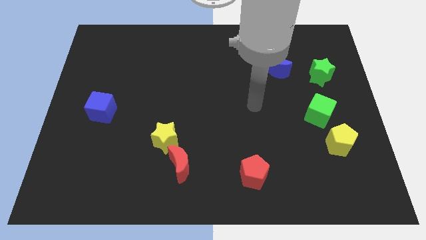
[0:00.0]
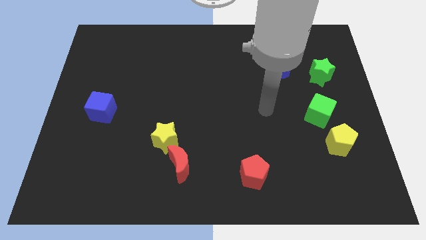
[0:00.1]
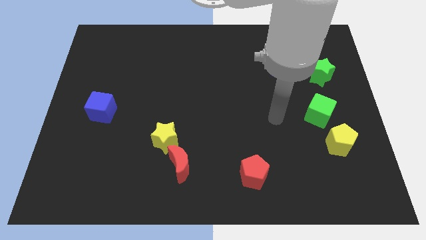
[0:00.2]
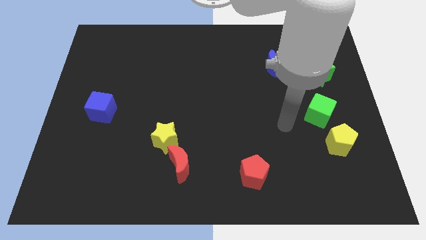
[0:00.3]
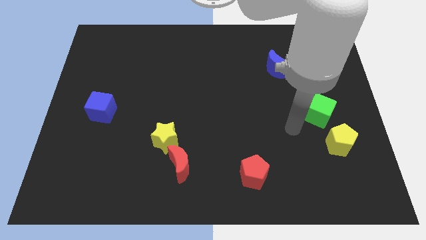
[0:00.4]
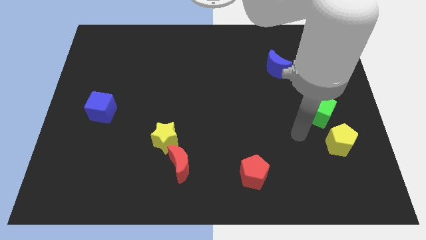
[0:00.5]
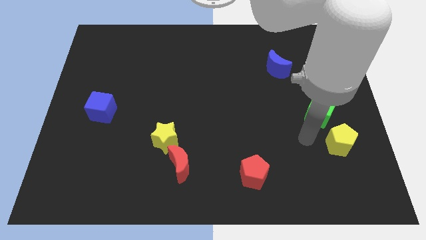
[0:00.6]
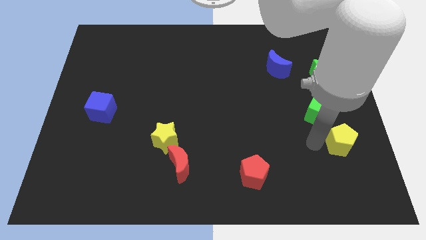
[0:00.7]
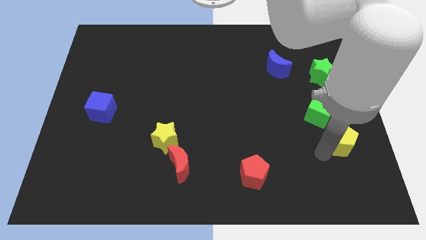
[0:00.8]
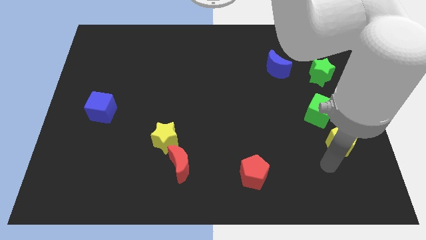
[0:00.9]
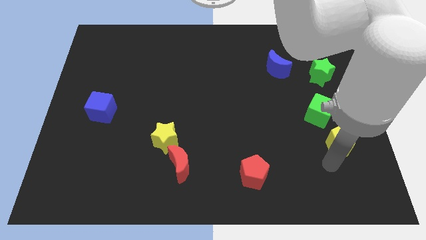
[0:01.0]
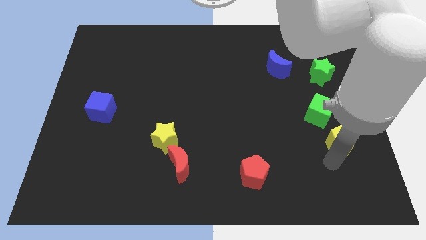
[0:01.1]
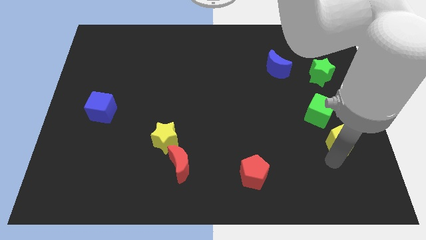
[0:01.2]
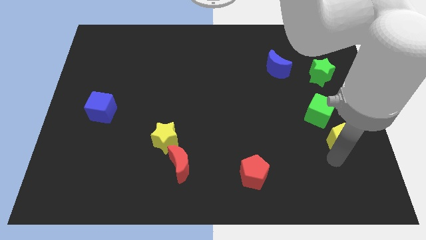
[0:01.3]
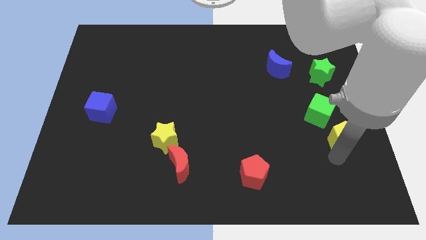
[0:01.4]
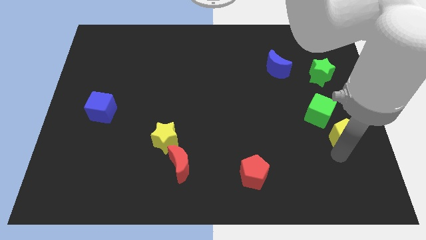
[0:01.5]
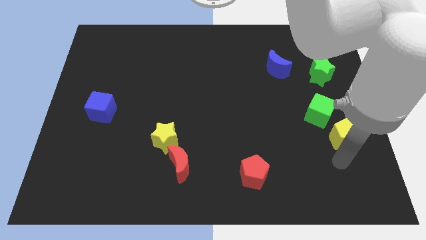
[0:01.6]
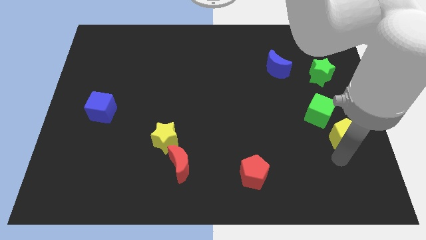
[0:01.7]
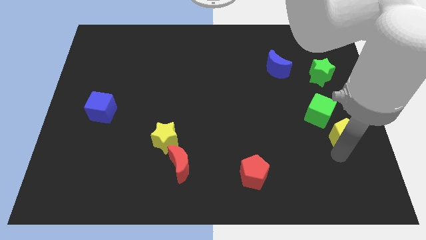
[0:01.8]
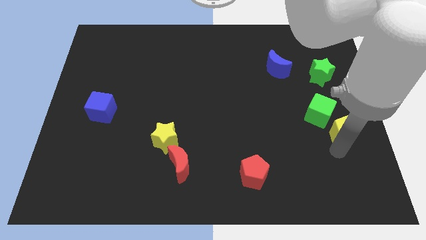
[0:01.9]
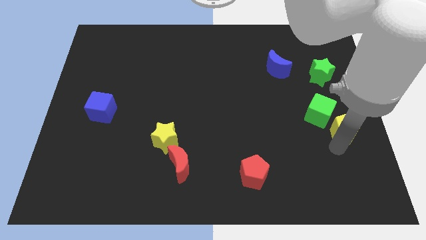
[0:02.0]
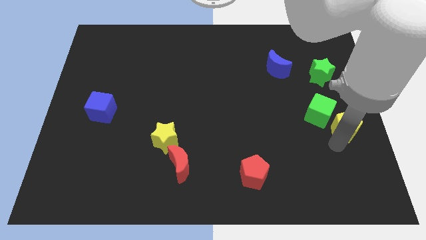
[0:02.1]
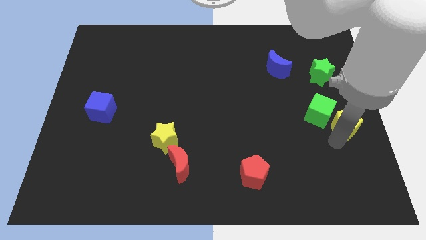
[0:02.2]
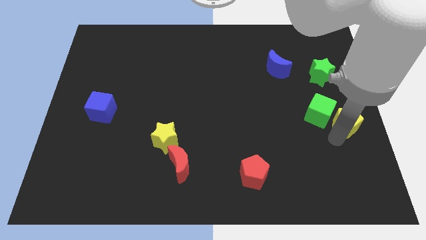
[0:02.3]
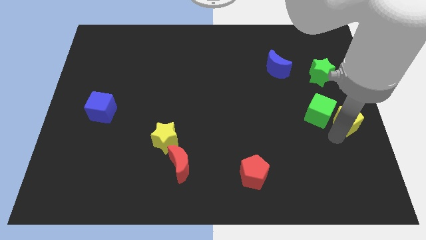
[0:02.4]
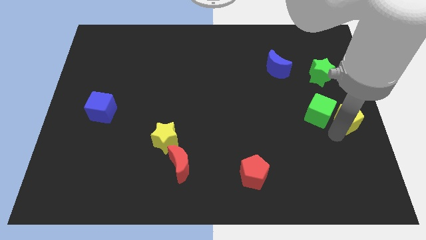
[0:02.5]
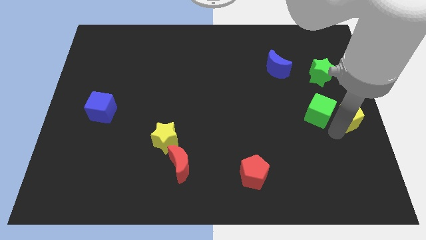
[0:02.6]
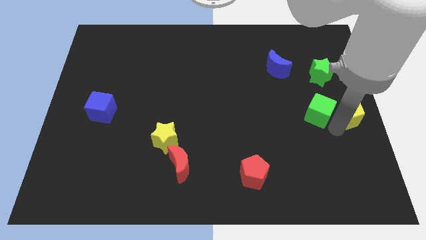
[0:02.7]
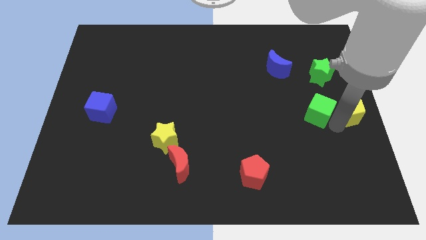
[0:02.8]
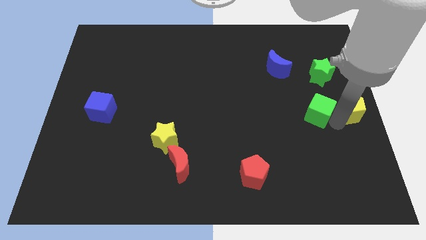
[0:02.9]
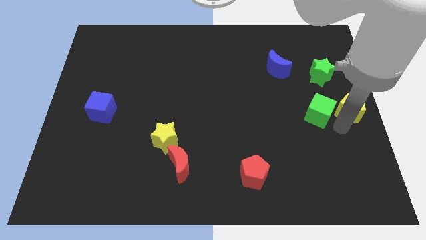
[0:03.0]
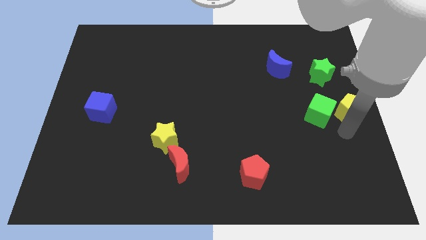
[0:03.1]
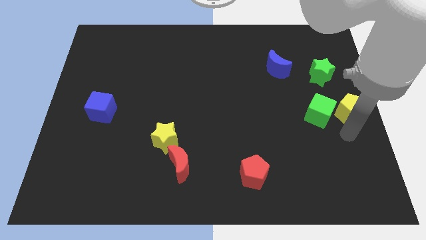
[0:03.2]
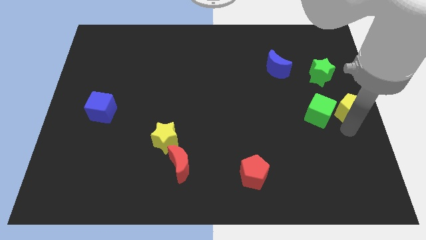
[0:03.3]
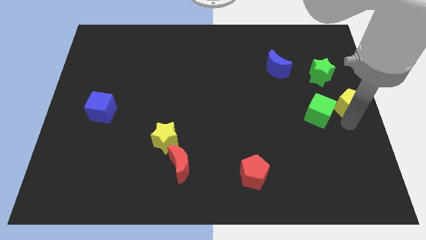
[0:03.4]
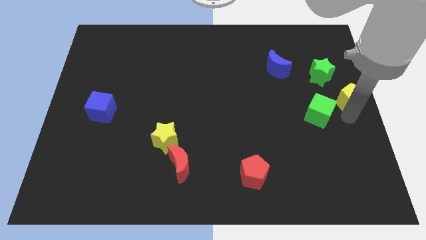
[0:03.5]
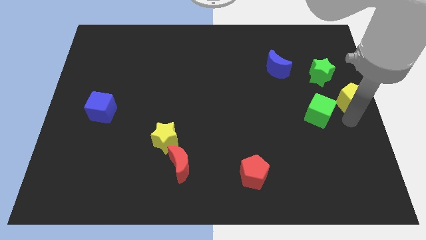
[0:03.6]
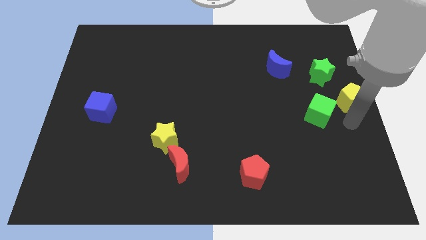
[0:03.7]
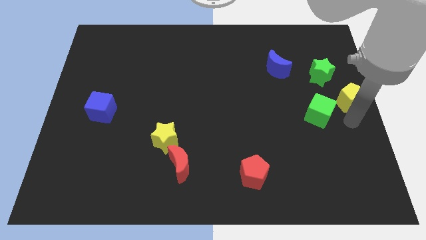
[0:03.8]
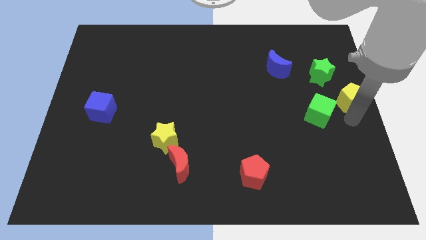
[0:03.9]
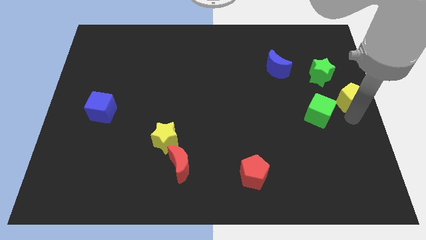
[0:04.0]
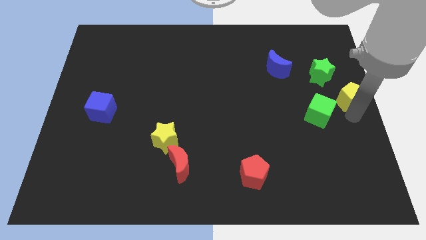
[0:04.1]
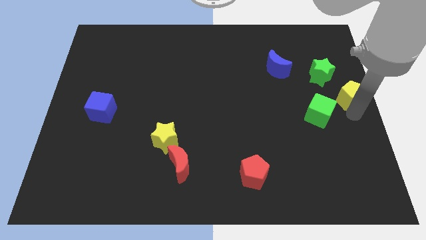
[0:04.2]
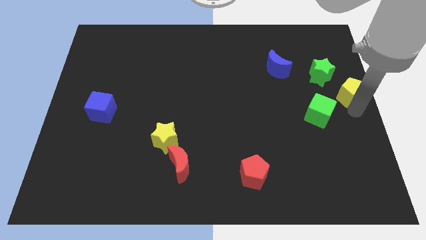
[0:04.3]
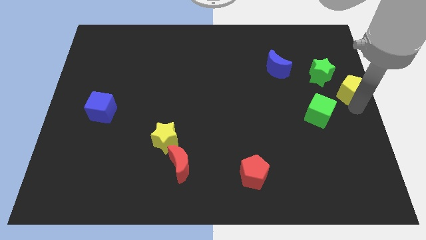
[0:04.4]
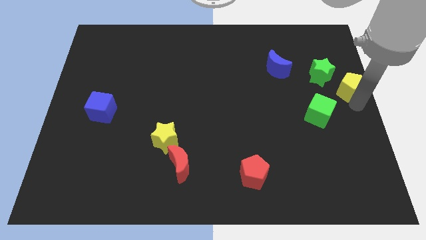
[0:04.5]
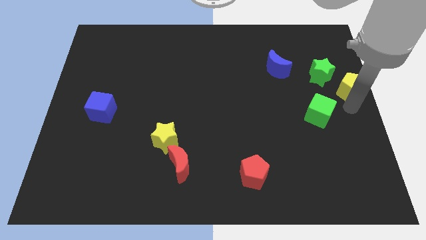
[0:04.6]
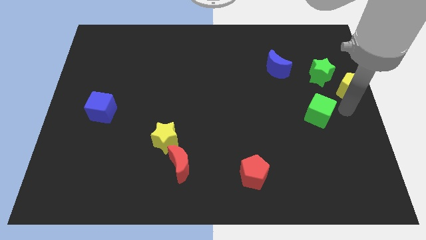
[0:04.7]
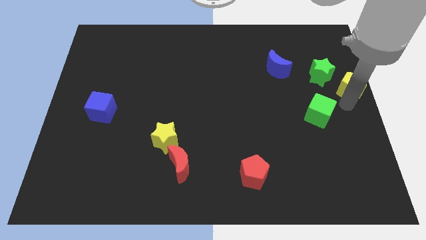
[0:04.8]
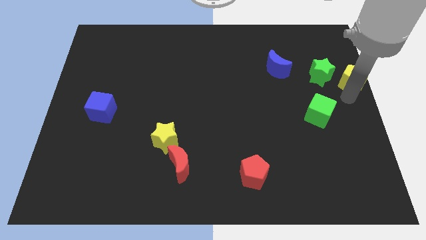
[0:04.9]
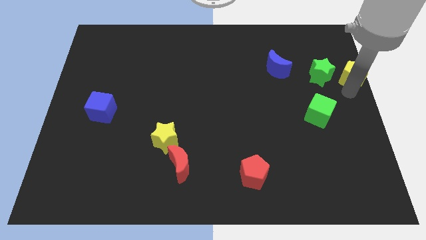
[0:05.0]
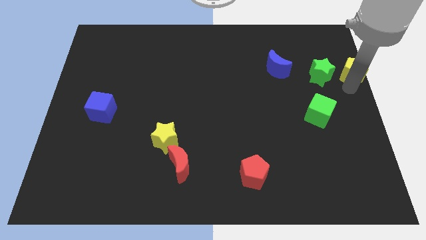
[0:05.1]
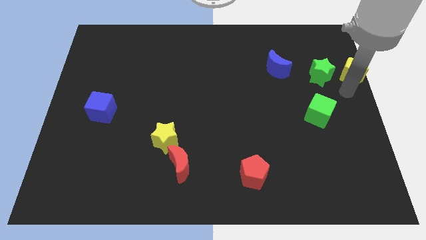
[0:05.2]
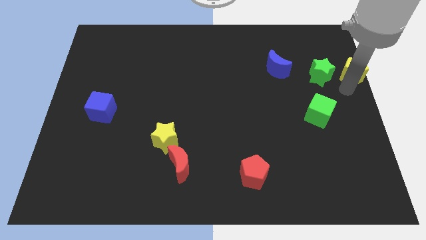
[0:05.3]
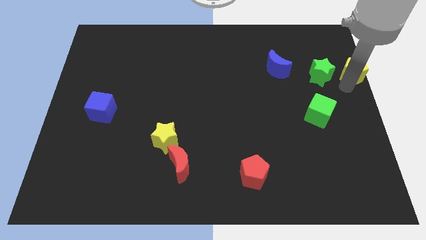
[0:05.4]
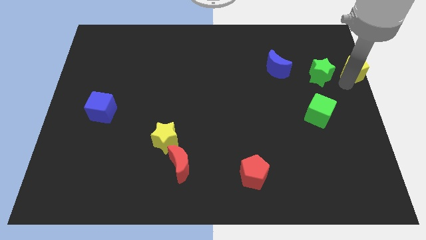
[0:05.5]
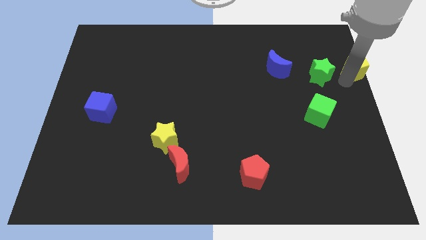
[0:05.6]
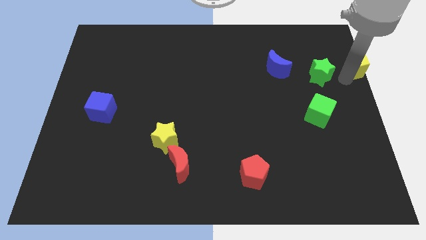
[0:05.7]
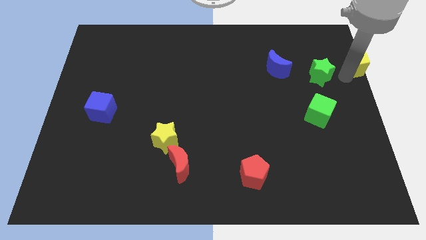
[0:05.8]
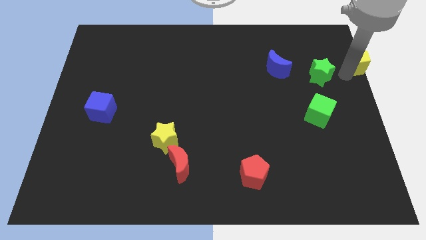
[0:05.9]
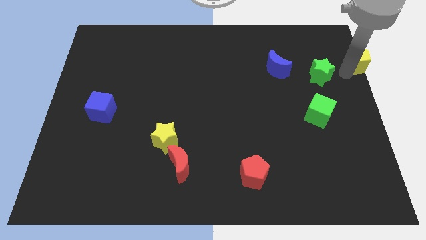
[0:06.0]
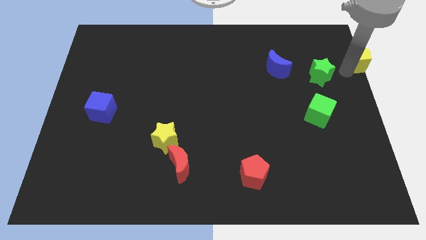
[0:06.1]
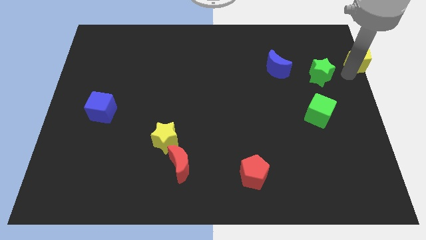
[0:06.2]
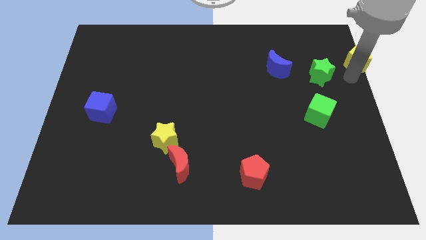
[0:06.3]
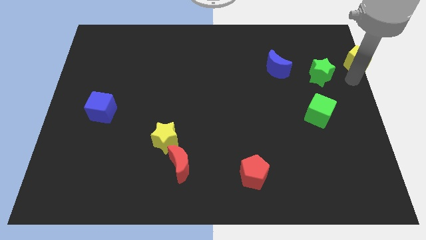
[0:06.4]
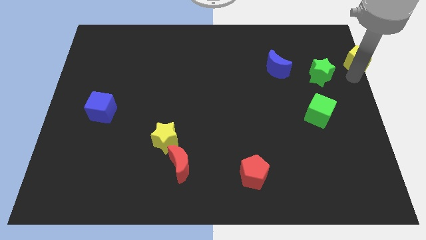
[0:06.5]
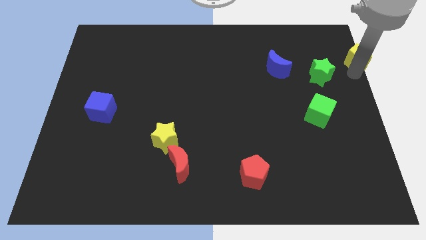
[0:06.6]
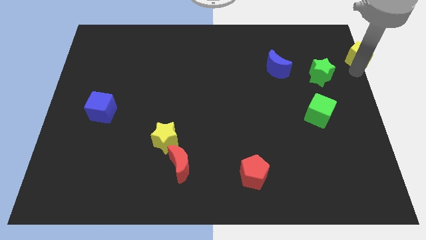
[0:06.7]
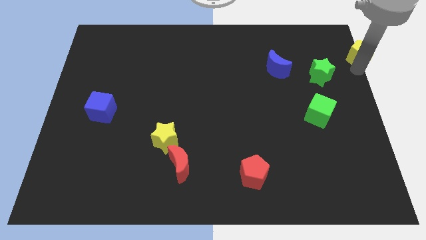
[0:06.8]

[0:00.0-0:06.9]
push the yellow pentagon to the top right corner

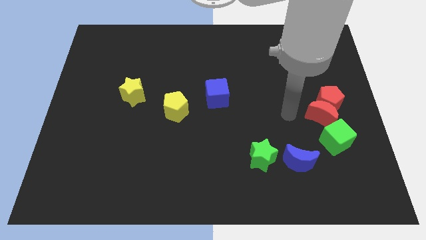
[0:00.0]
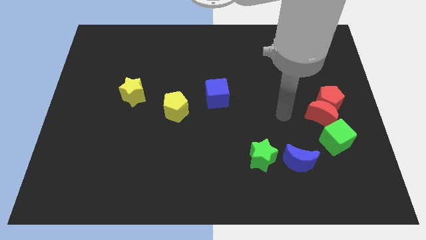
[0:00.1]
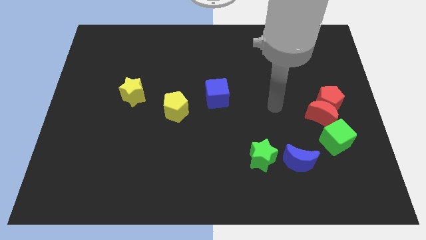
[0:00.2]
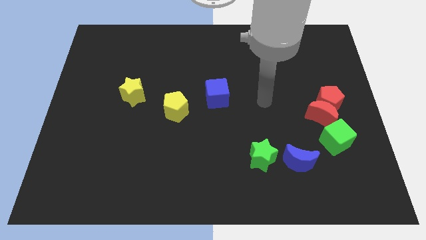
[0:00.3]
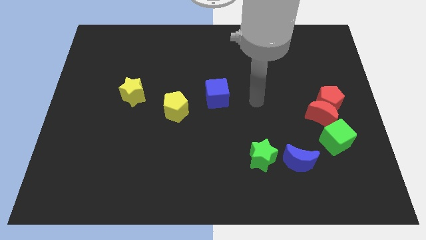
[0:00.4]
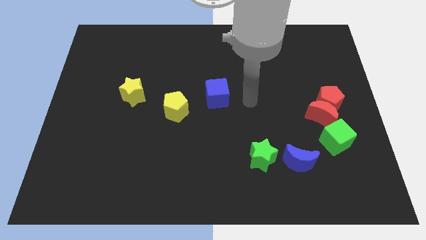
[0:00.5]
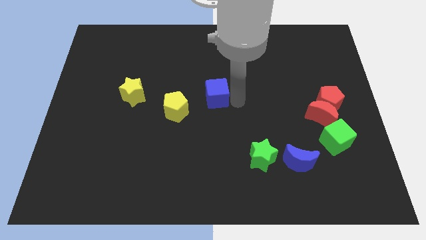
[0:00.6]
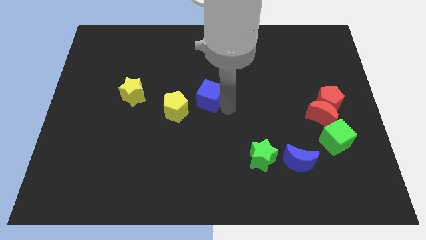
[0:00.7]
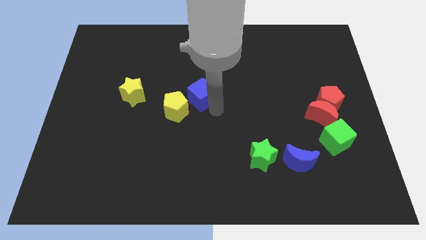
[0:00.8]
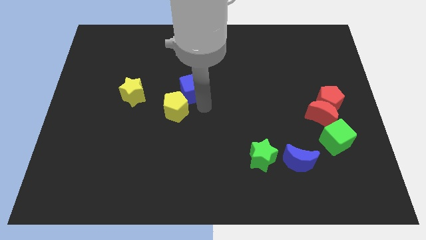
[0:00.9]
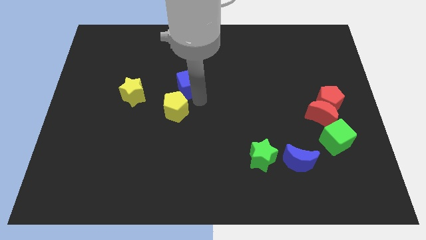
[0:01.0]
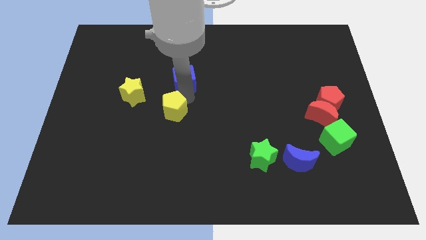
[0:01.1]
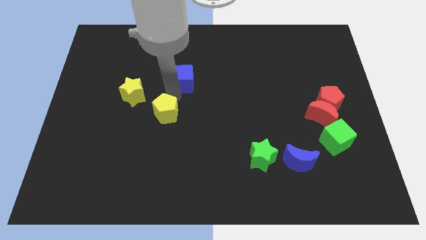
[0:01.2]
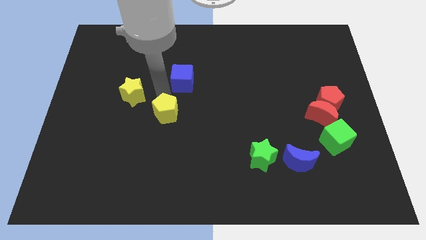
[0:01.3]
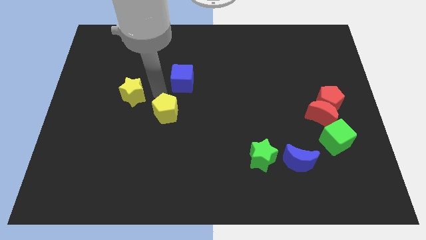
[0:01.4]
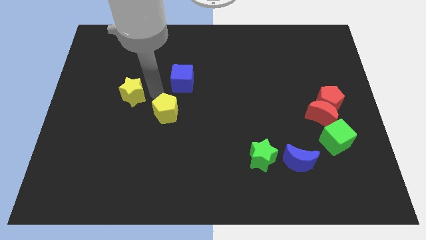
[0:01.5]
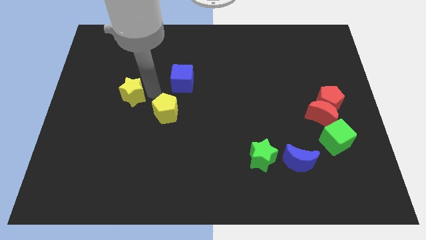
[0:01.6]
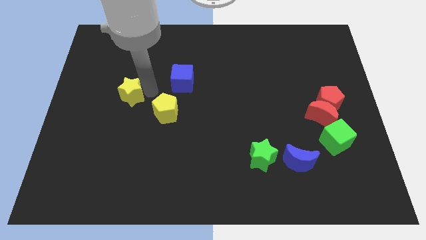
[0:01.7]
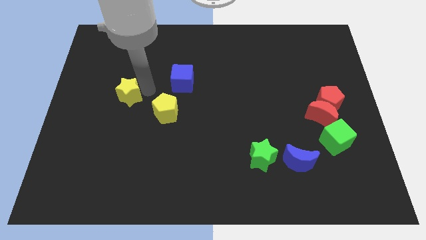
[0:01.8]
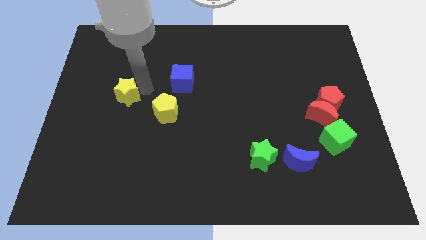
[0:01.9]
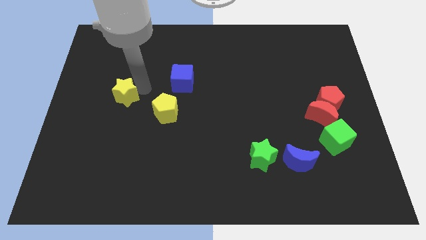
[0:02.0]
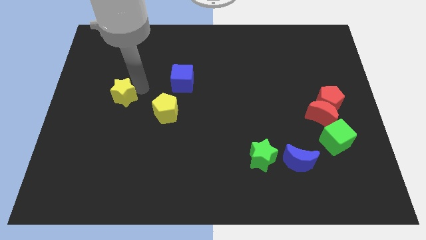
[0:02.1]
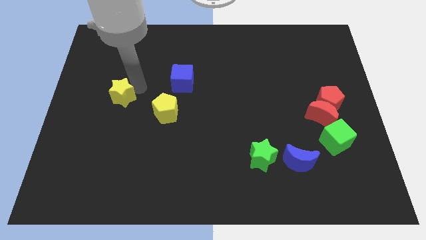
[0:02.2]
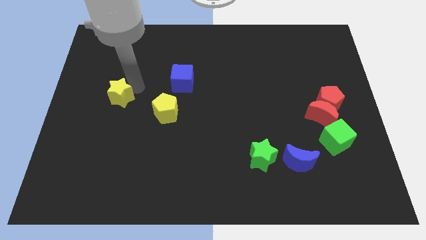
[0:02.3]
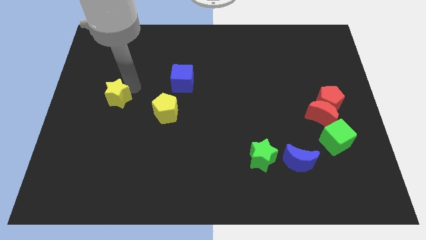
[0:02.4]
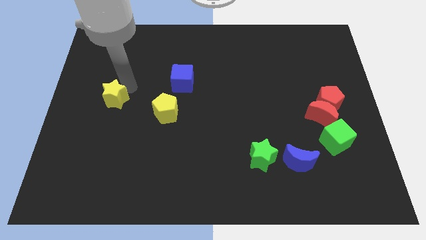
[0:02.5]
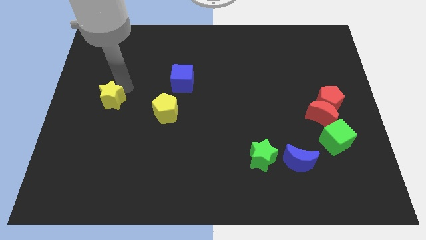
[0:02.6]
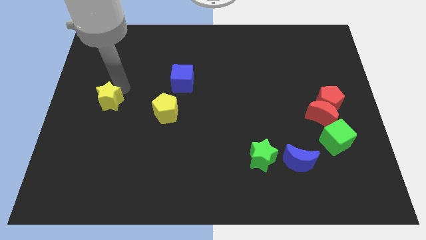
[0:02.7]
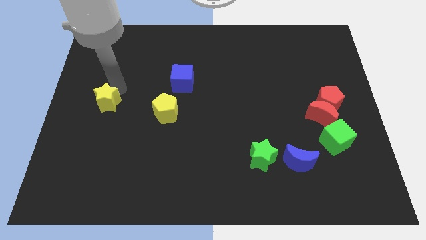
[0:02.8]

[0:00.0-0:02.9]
put the yellow star to the left side of the board
